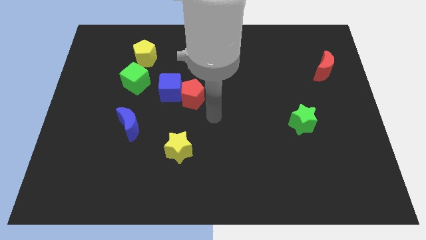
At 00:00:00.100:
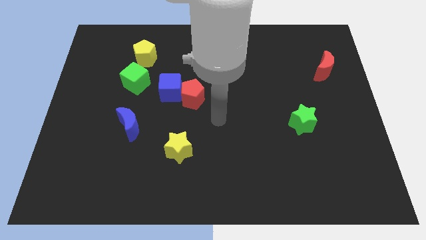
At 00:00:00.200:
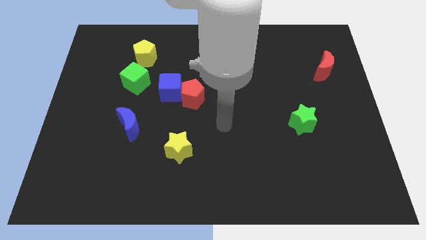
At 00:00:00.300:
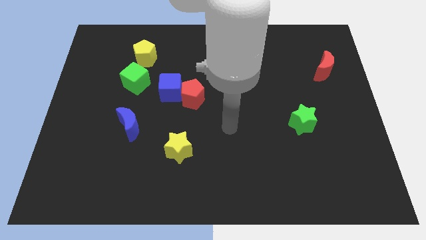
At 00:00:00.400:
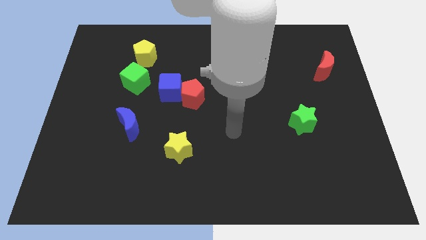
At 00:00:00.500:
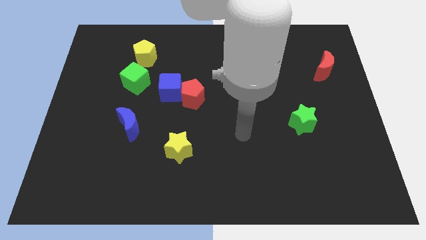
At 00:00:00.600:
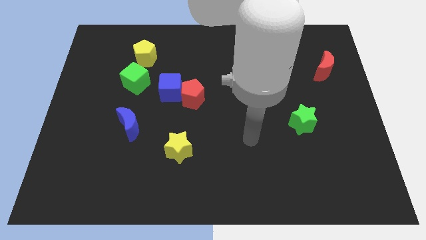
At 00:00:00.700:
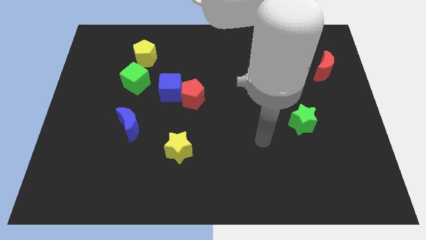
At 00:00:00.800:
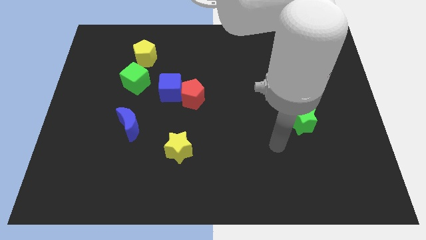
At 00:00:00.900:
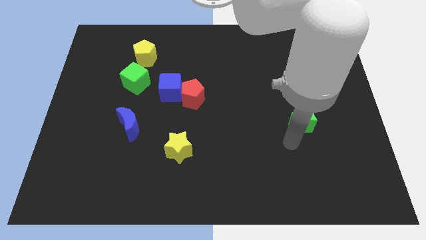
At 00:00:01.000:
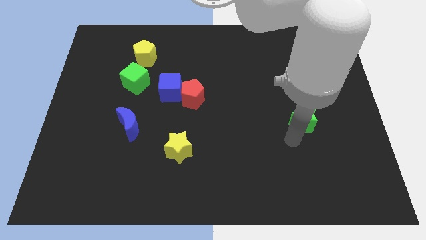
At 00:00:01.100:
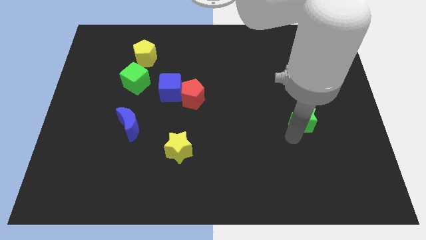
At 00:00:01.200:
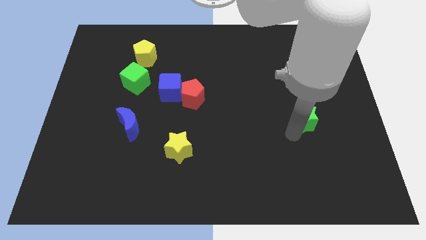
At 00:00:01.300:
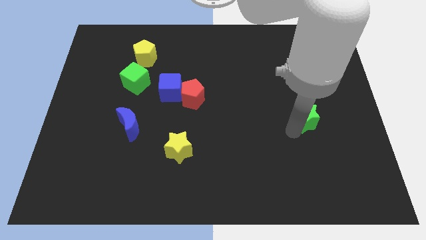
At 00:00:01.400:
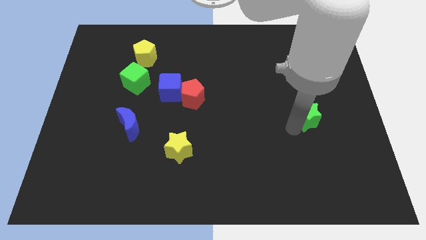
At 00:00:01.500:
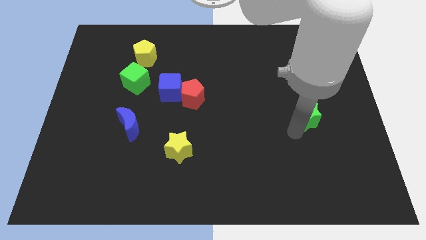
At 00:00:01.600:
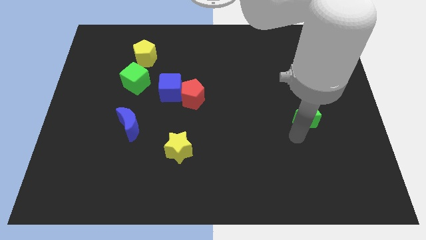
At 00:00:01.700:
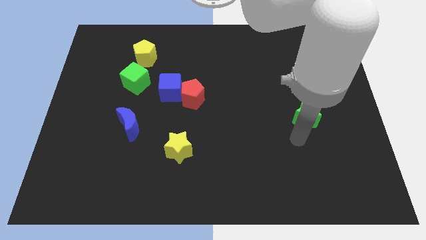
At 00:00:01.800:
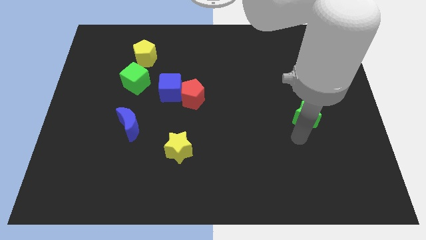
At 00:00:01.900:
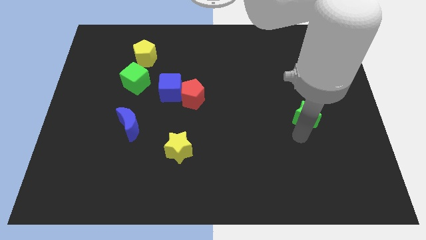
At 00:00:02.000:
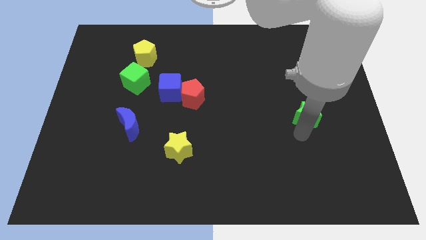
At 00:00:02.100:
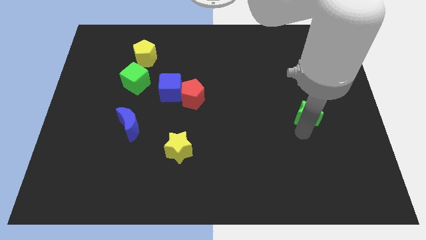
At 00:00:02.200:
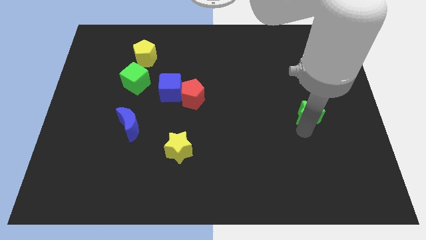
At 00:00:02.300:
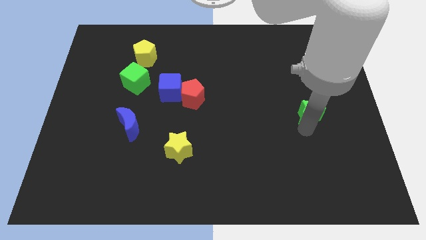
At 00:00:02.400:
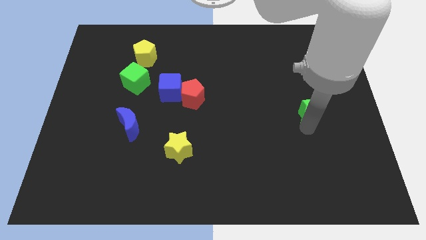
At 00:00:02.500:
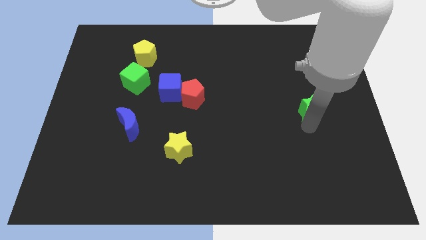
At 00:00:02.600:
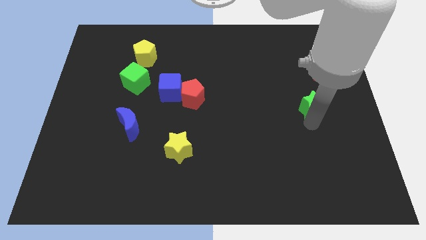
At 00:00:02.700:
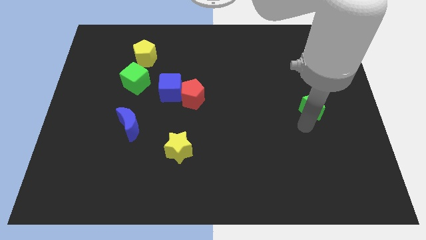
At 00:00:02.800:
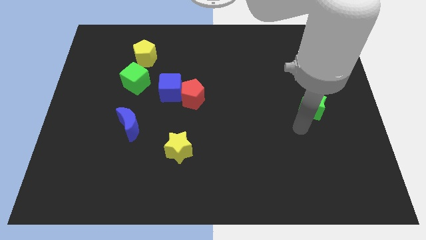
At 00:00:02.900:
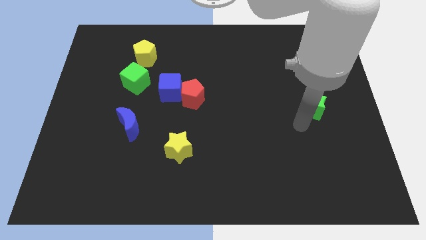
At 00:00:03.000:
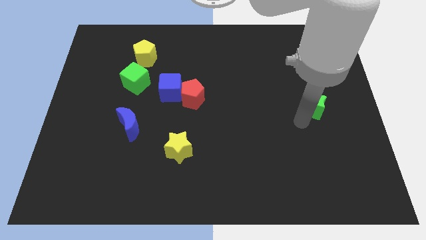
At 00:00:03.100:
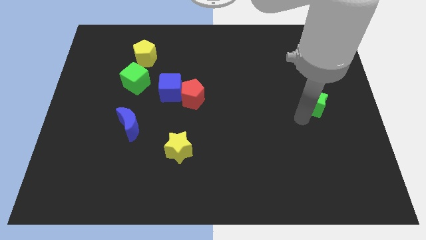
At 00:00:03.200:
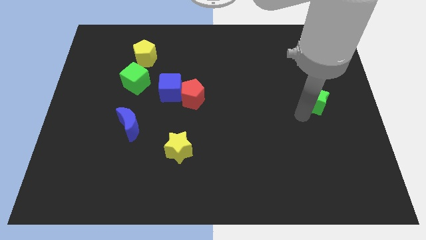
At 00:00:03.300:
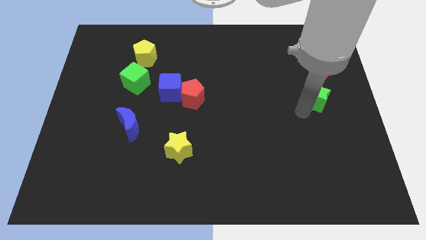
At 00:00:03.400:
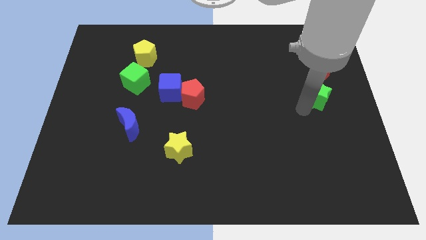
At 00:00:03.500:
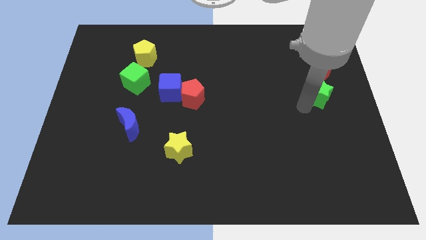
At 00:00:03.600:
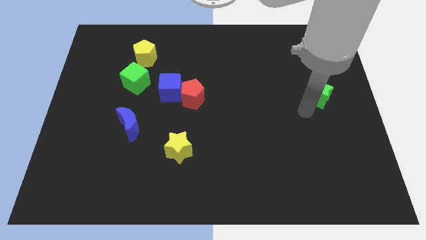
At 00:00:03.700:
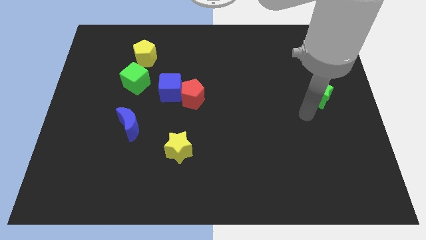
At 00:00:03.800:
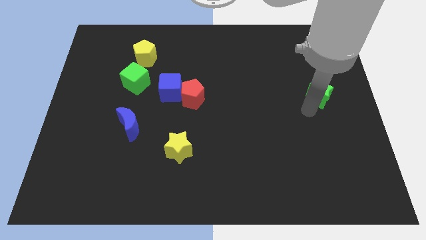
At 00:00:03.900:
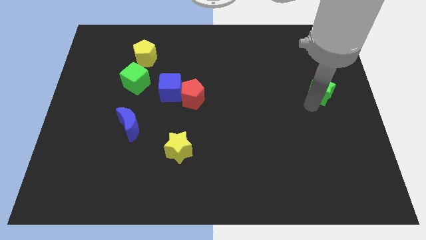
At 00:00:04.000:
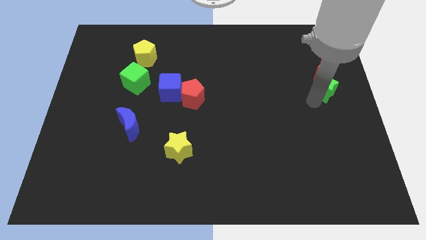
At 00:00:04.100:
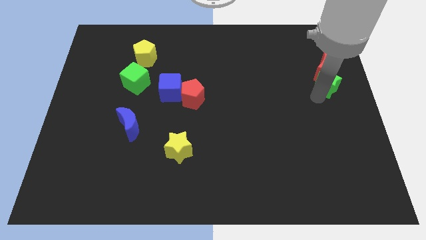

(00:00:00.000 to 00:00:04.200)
move the green star towards the red moon

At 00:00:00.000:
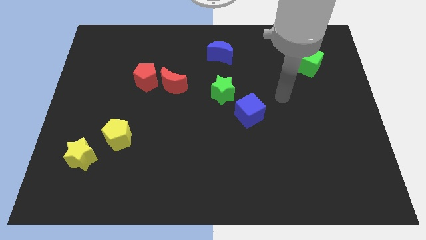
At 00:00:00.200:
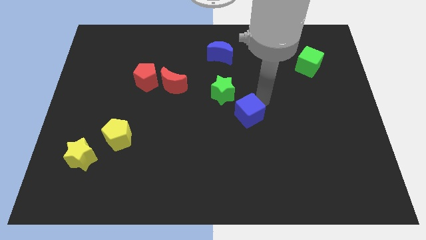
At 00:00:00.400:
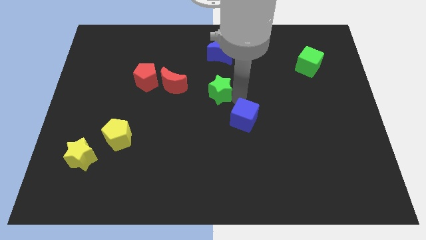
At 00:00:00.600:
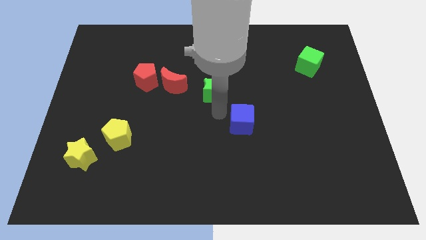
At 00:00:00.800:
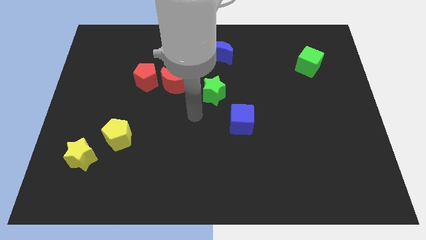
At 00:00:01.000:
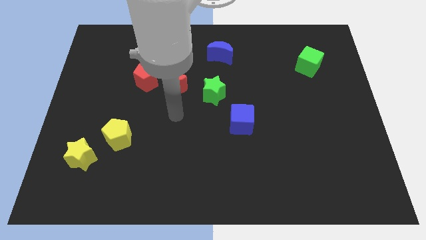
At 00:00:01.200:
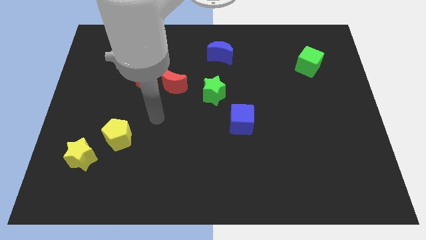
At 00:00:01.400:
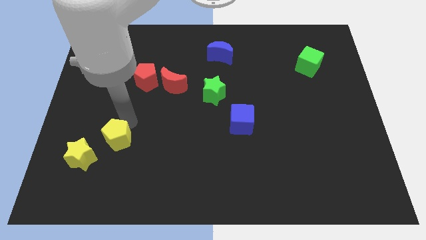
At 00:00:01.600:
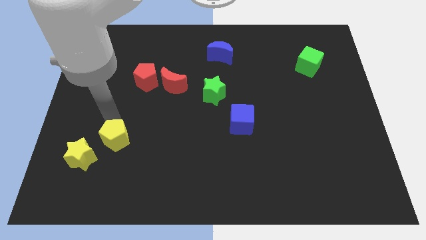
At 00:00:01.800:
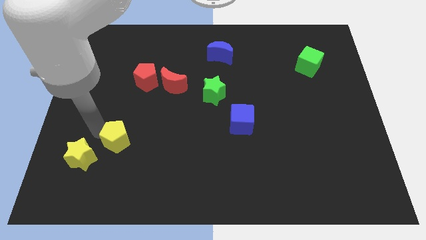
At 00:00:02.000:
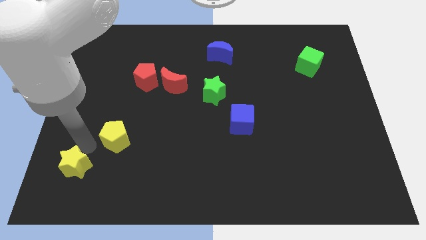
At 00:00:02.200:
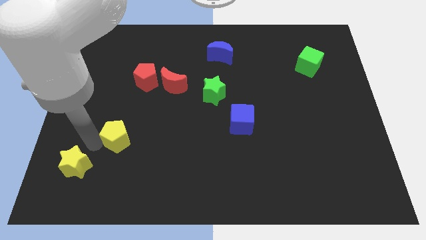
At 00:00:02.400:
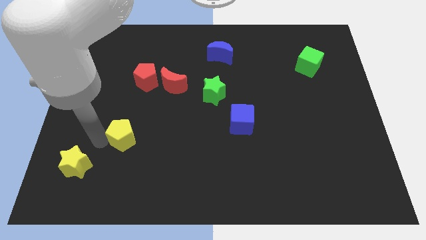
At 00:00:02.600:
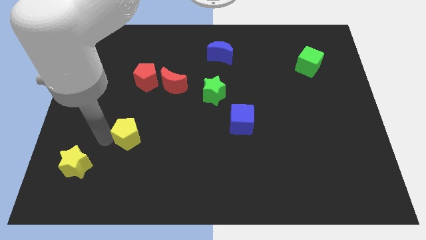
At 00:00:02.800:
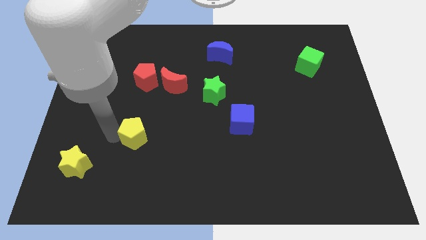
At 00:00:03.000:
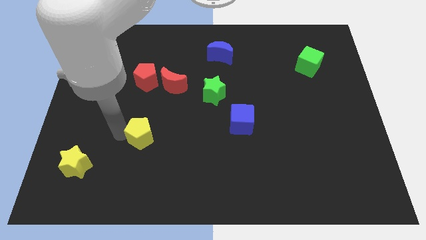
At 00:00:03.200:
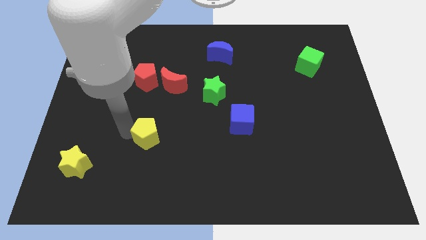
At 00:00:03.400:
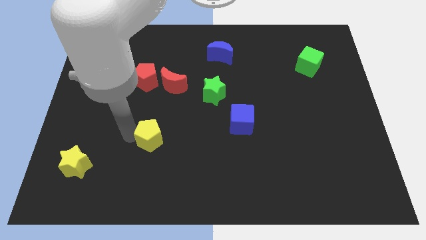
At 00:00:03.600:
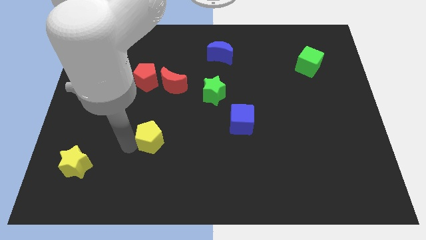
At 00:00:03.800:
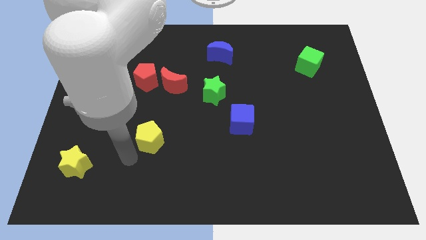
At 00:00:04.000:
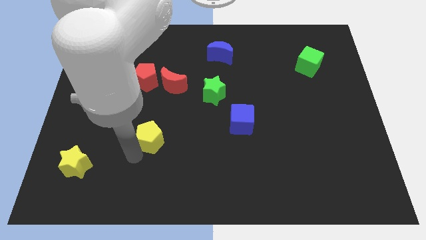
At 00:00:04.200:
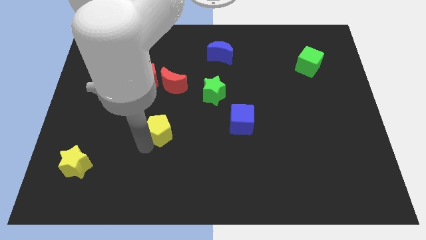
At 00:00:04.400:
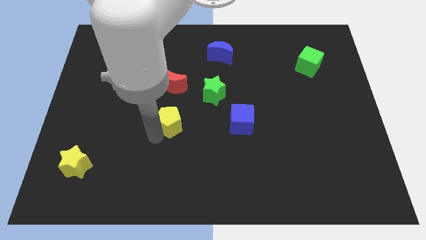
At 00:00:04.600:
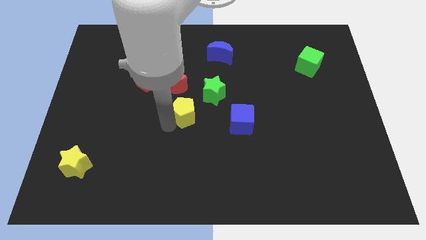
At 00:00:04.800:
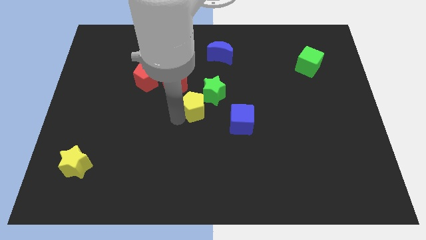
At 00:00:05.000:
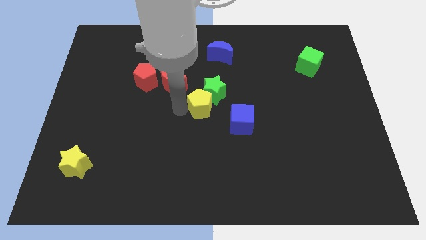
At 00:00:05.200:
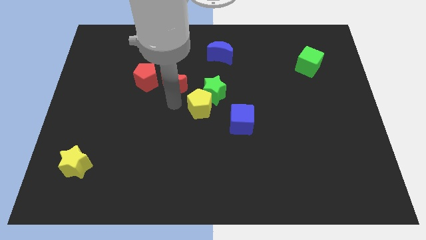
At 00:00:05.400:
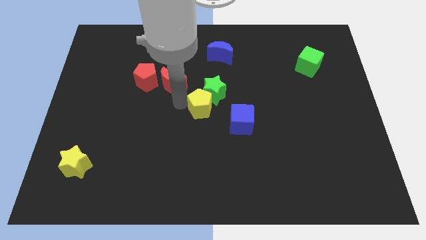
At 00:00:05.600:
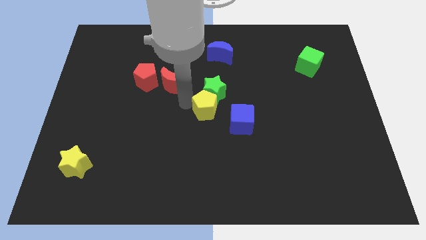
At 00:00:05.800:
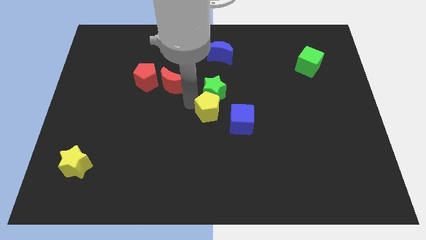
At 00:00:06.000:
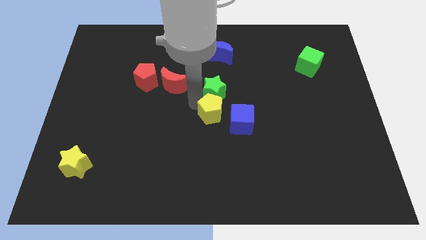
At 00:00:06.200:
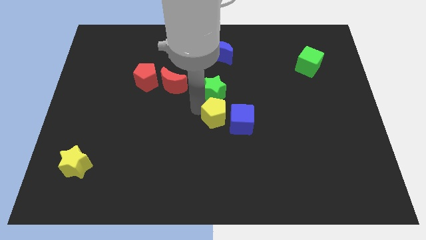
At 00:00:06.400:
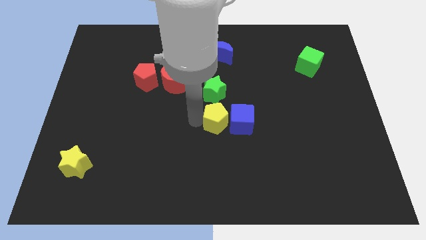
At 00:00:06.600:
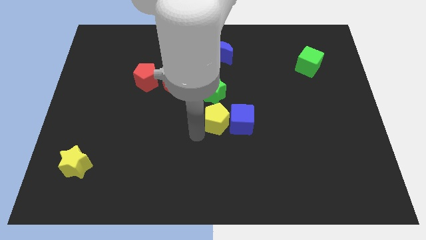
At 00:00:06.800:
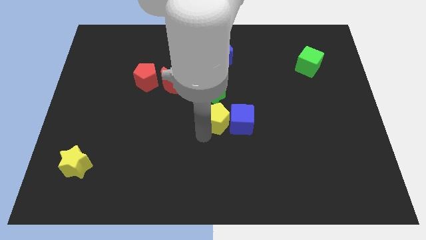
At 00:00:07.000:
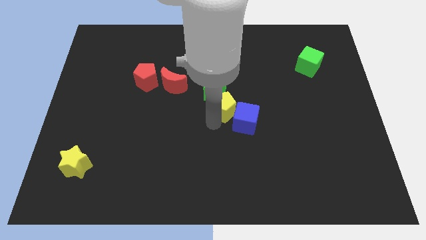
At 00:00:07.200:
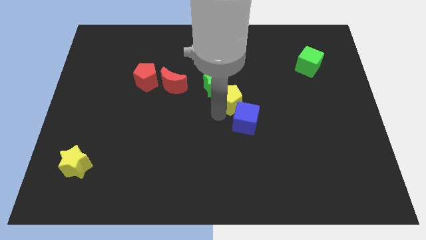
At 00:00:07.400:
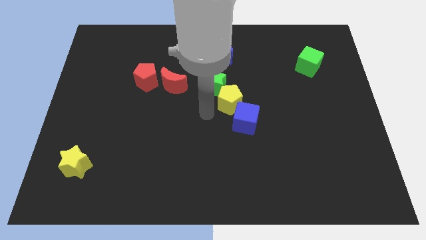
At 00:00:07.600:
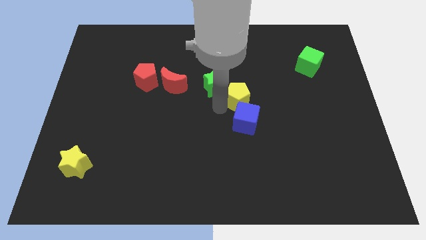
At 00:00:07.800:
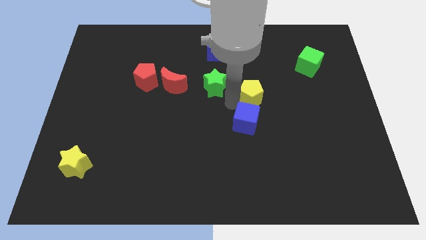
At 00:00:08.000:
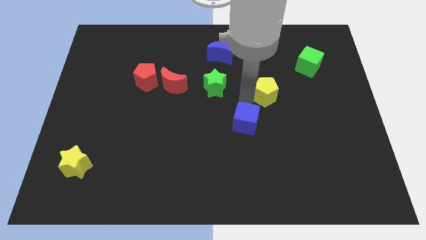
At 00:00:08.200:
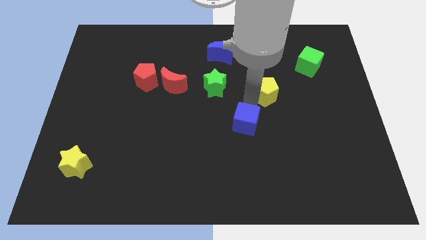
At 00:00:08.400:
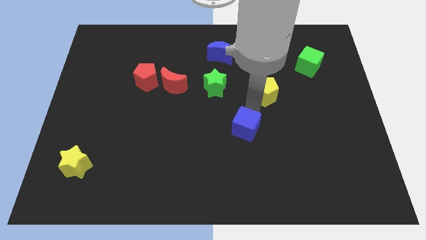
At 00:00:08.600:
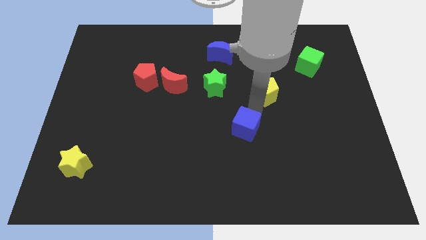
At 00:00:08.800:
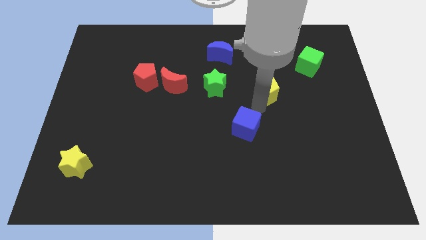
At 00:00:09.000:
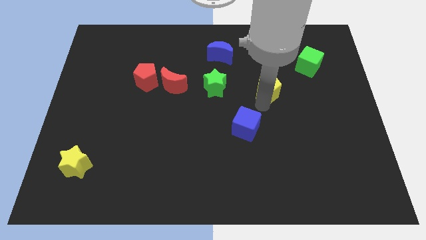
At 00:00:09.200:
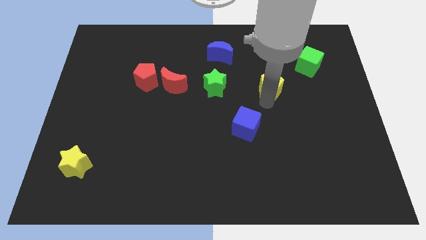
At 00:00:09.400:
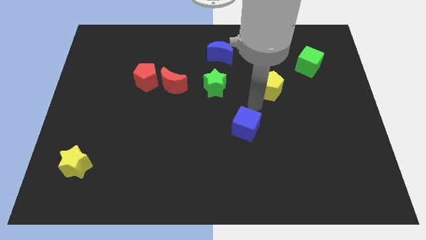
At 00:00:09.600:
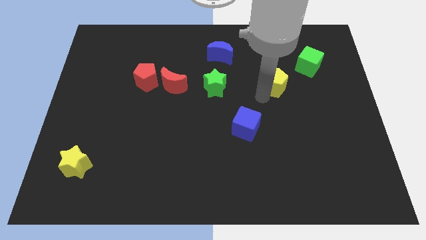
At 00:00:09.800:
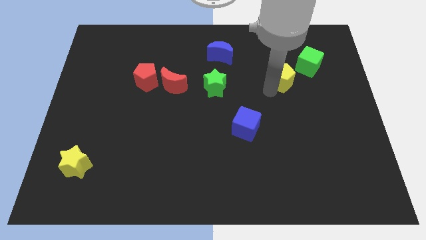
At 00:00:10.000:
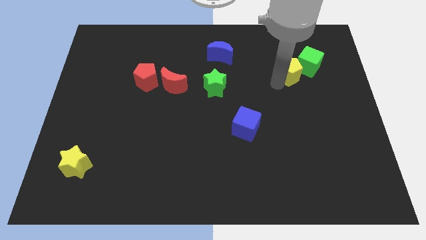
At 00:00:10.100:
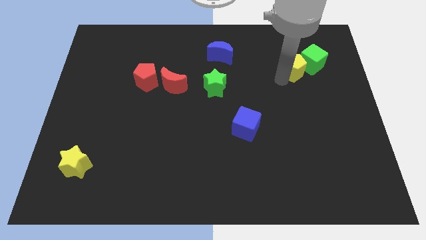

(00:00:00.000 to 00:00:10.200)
put the yellow pentagon towards the green cube
